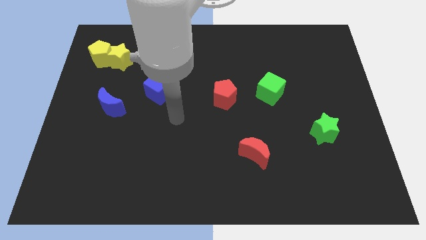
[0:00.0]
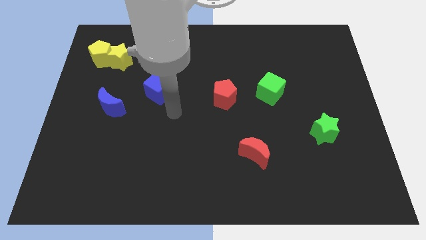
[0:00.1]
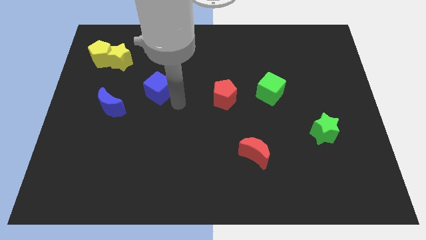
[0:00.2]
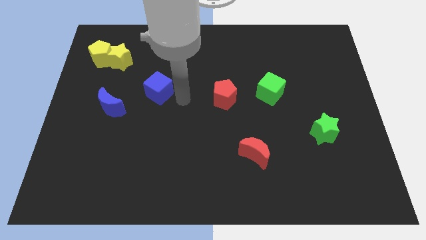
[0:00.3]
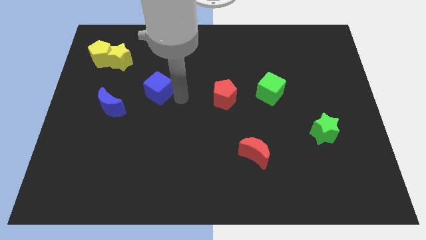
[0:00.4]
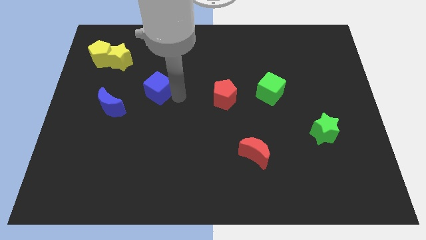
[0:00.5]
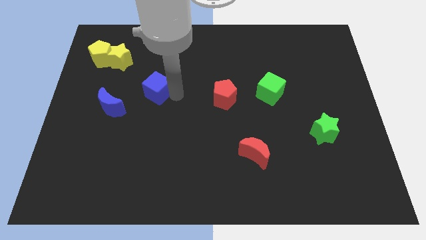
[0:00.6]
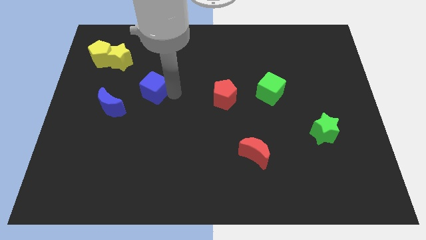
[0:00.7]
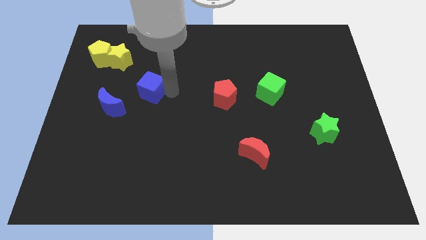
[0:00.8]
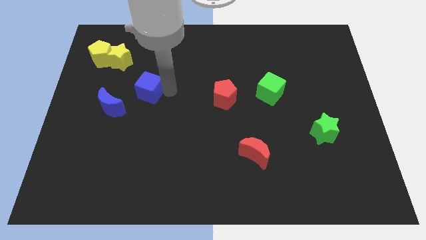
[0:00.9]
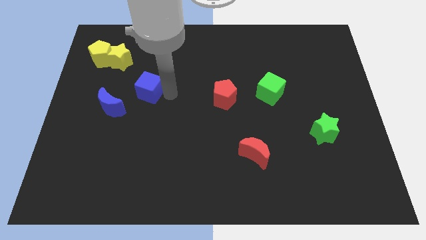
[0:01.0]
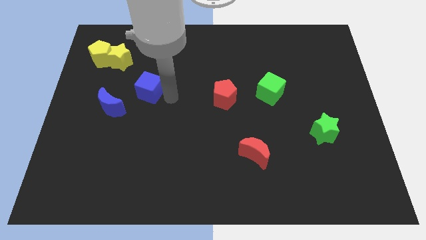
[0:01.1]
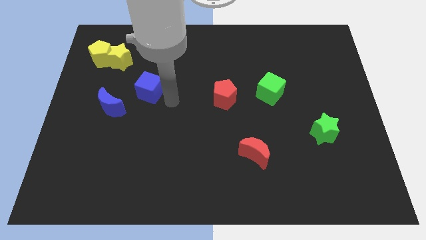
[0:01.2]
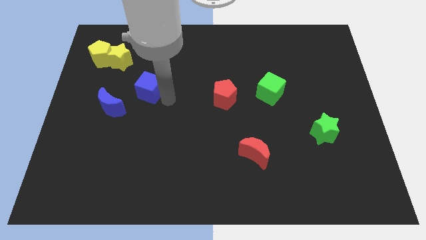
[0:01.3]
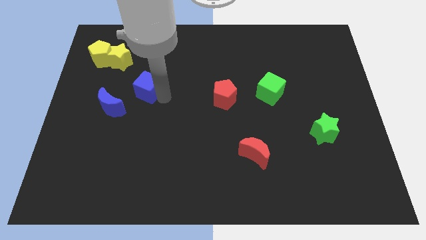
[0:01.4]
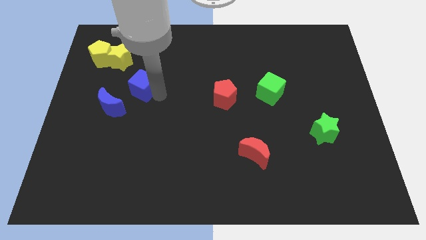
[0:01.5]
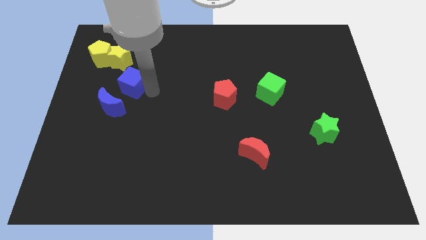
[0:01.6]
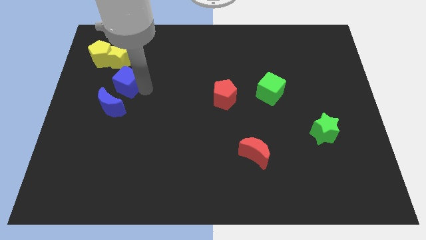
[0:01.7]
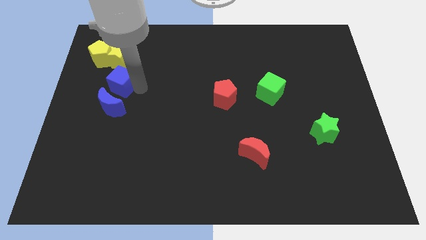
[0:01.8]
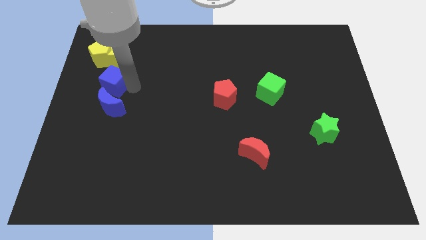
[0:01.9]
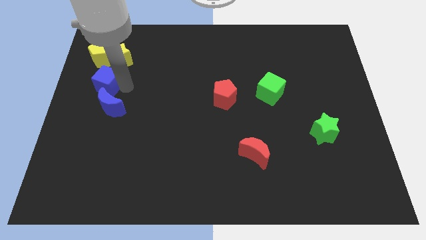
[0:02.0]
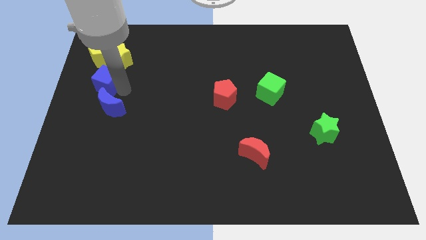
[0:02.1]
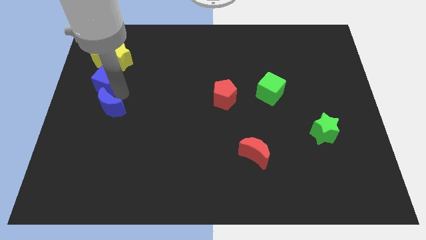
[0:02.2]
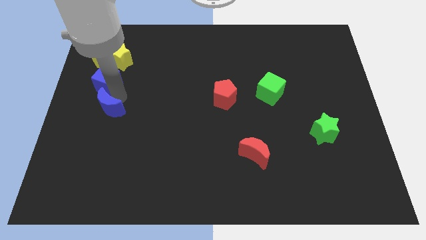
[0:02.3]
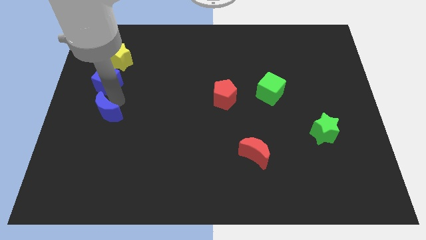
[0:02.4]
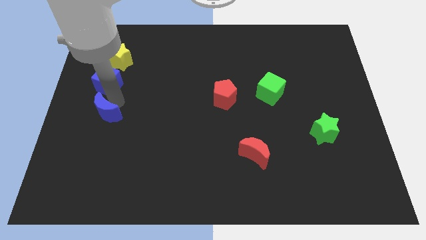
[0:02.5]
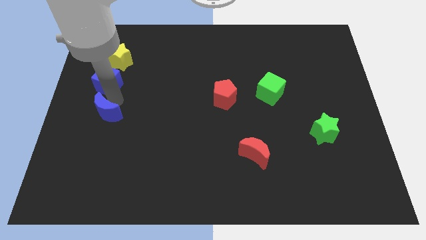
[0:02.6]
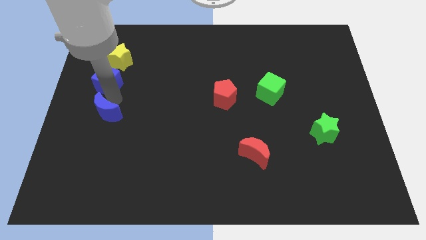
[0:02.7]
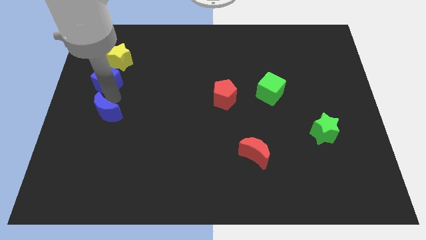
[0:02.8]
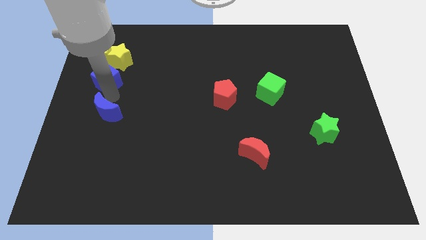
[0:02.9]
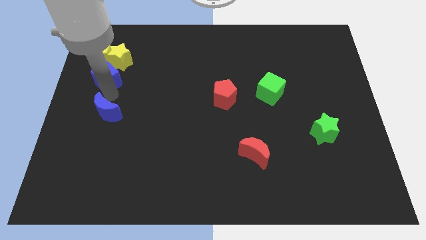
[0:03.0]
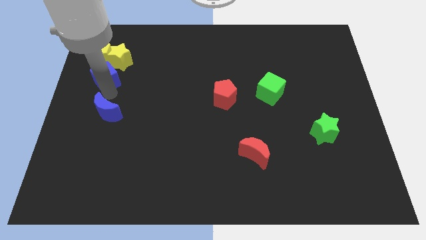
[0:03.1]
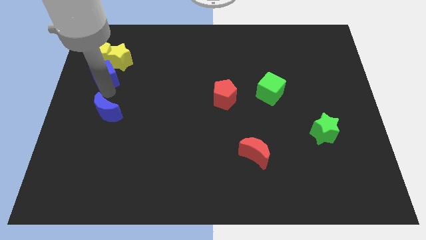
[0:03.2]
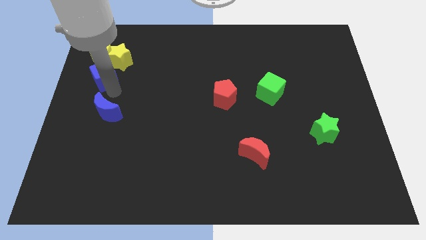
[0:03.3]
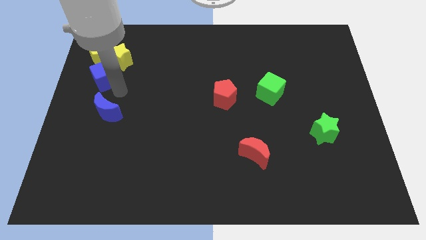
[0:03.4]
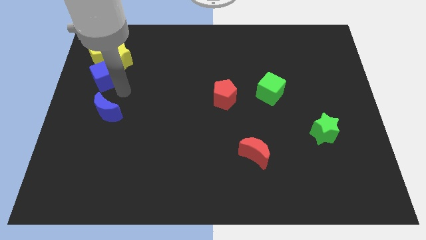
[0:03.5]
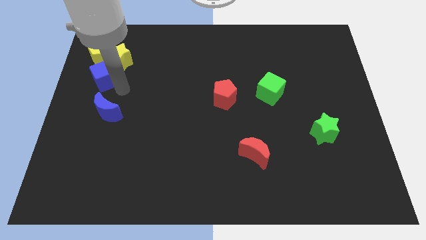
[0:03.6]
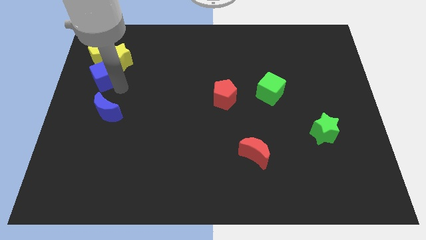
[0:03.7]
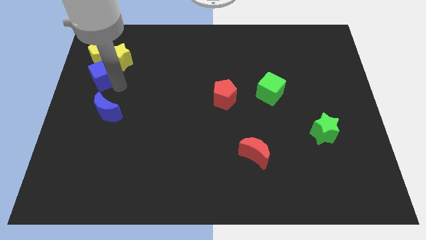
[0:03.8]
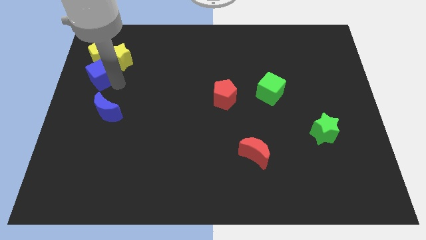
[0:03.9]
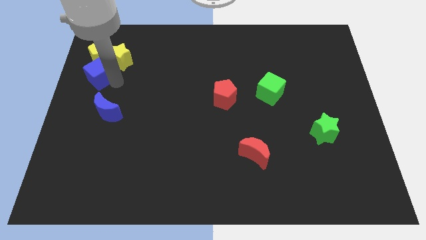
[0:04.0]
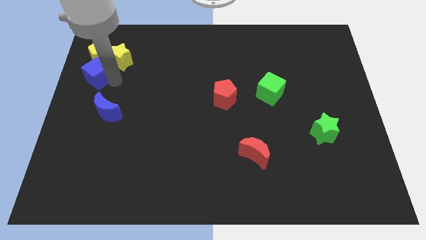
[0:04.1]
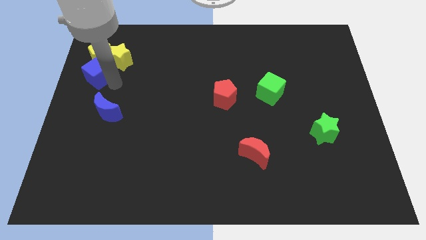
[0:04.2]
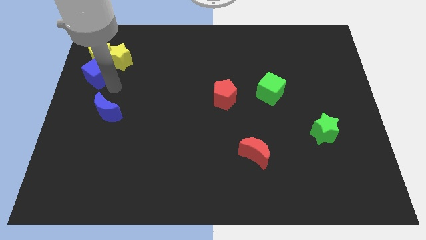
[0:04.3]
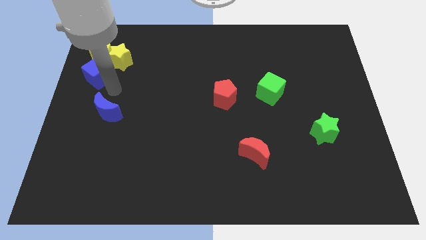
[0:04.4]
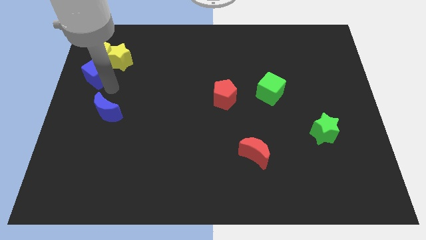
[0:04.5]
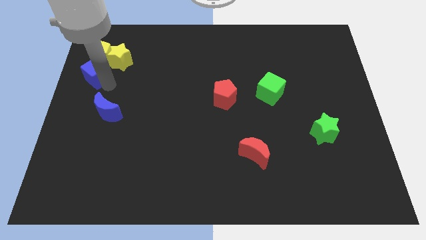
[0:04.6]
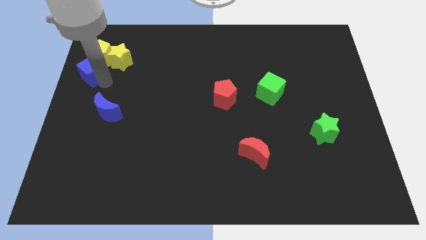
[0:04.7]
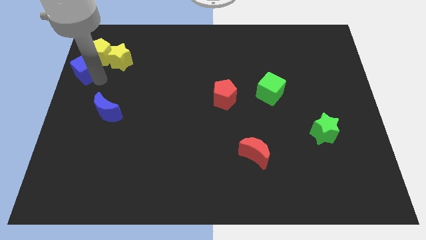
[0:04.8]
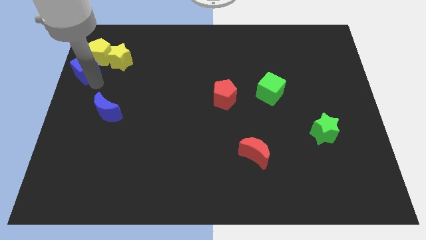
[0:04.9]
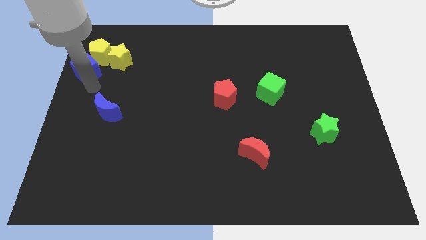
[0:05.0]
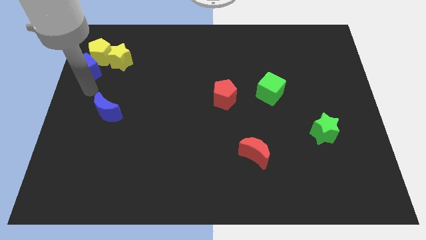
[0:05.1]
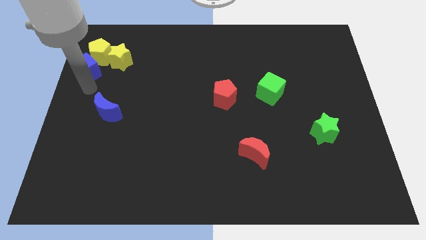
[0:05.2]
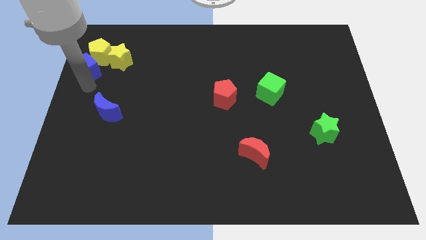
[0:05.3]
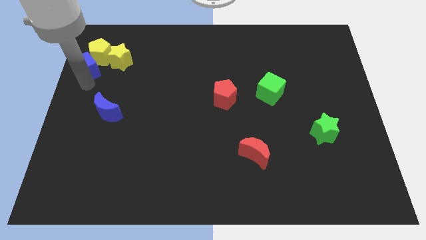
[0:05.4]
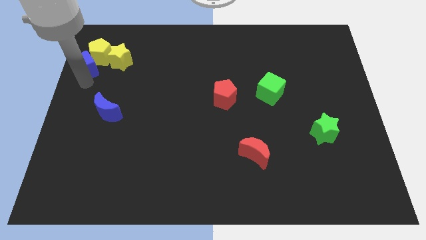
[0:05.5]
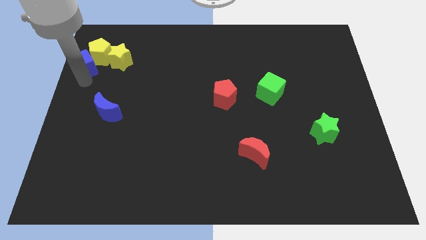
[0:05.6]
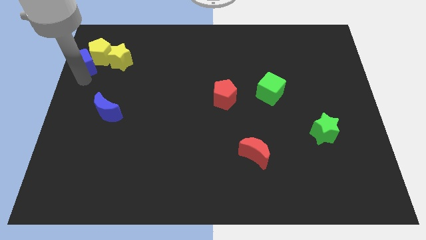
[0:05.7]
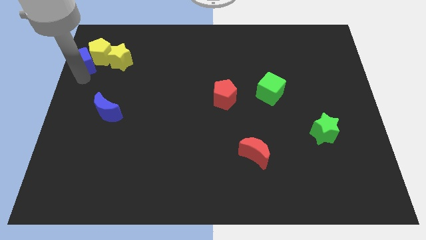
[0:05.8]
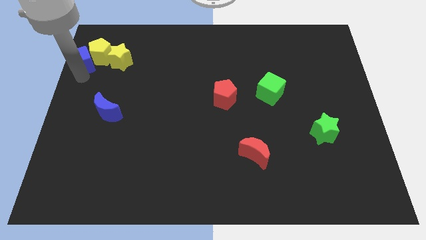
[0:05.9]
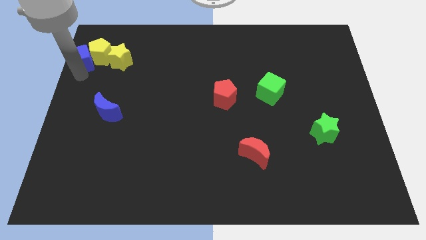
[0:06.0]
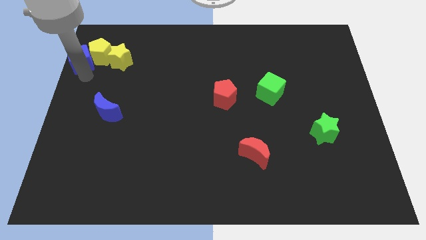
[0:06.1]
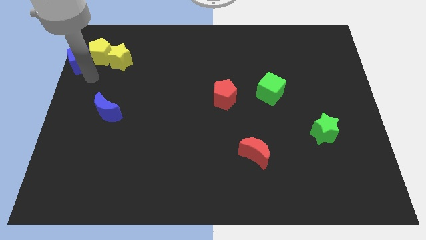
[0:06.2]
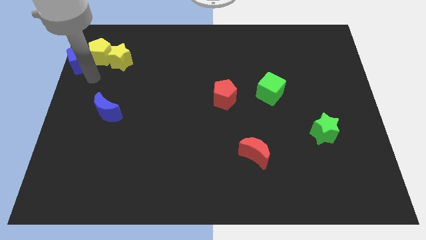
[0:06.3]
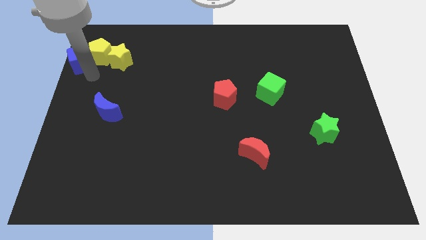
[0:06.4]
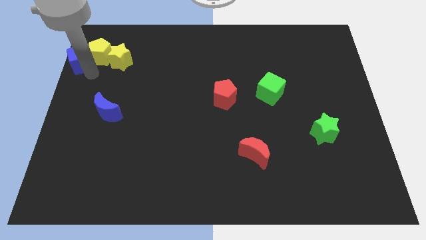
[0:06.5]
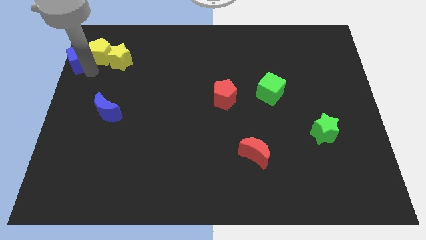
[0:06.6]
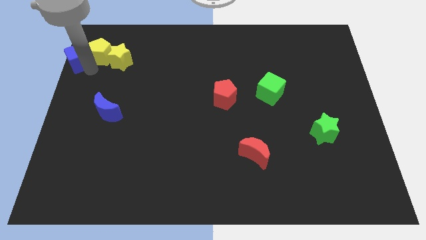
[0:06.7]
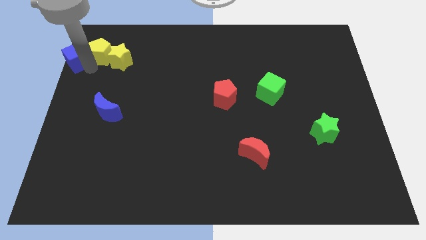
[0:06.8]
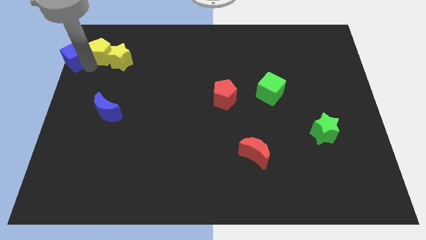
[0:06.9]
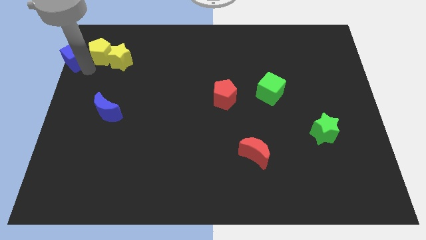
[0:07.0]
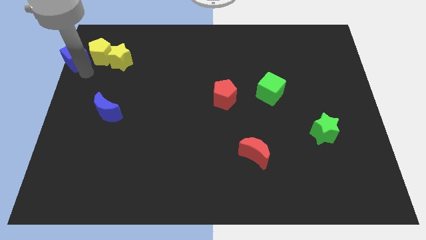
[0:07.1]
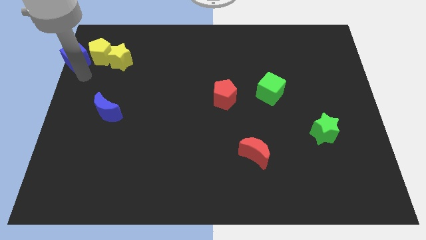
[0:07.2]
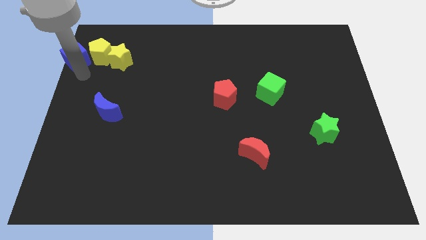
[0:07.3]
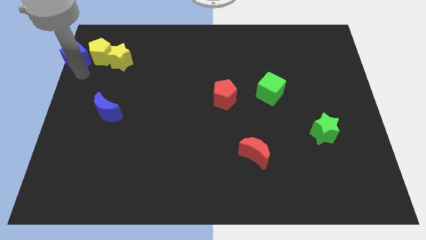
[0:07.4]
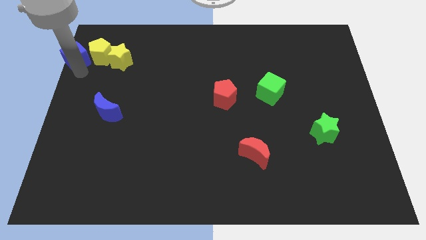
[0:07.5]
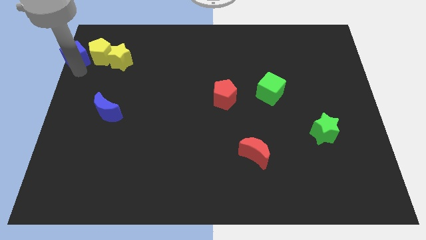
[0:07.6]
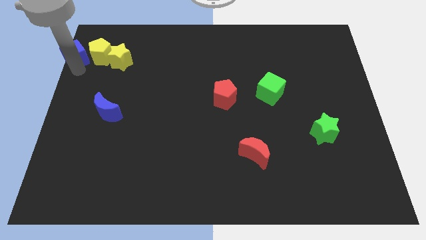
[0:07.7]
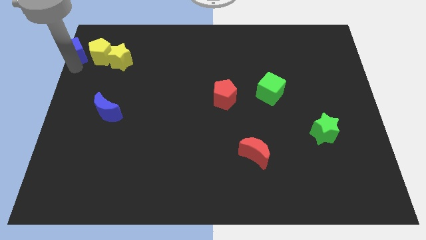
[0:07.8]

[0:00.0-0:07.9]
push the blue cube to the upper left corner
